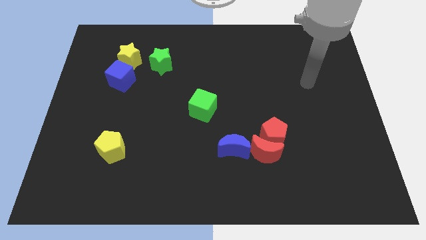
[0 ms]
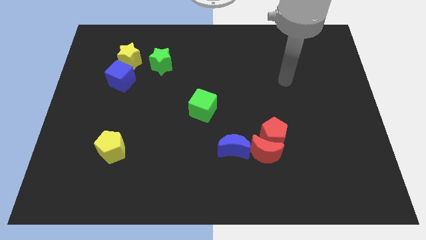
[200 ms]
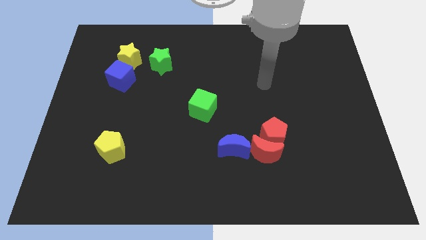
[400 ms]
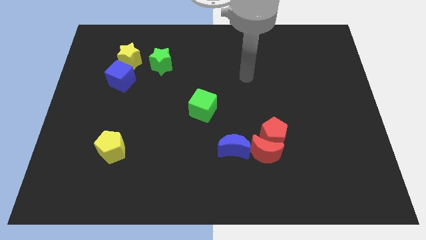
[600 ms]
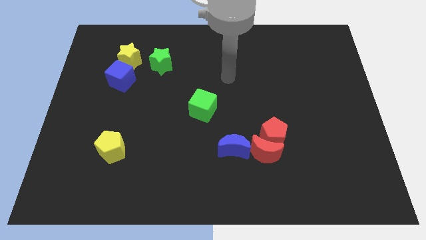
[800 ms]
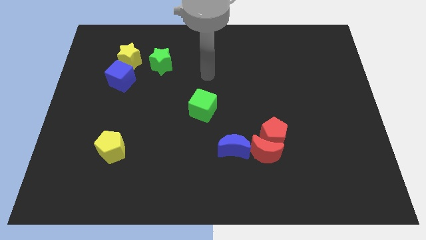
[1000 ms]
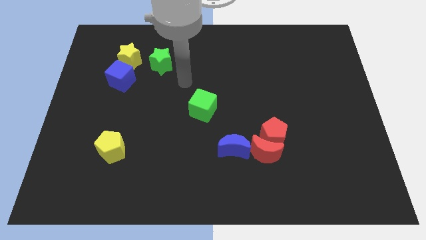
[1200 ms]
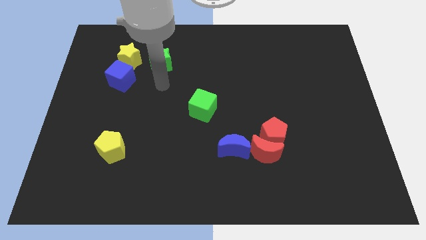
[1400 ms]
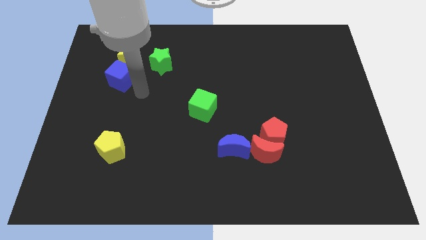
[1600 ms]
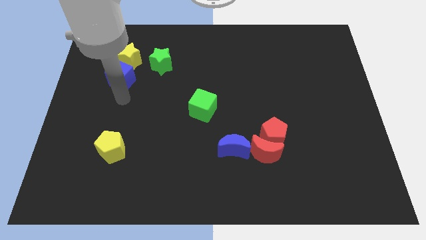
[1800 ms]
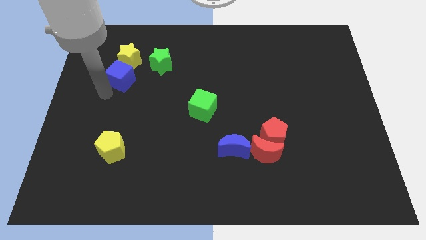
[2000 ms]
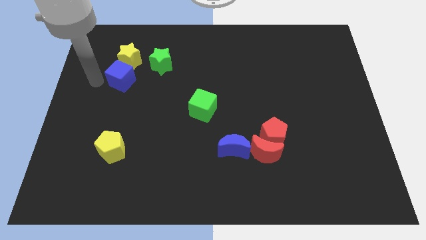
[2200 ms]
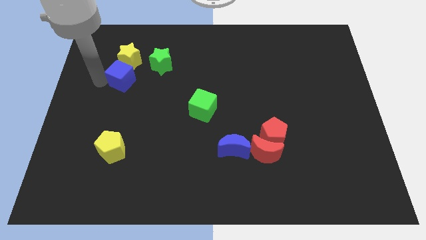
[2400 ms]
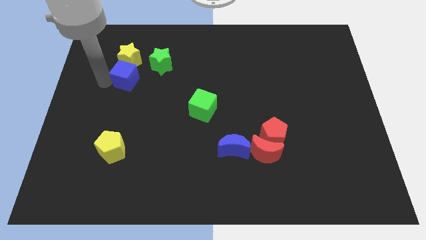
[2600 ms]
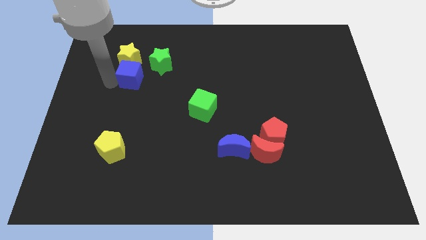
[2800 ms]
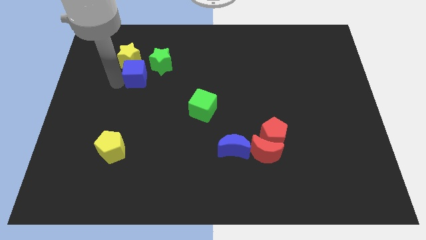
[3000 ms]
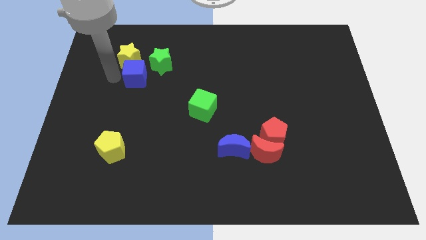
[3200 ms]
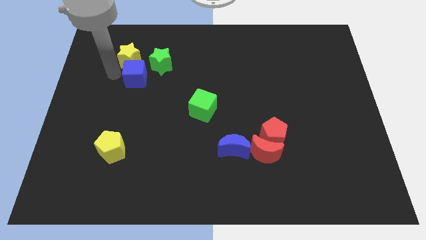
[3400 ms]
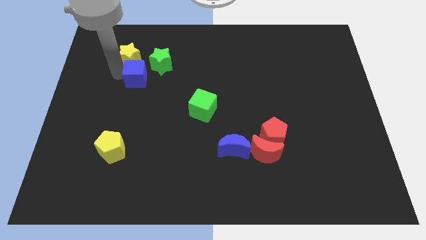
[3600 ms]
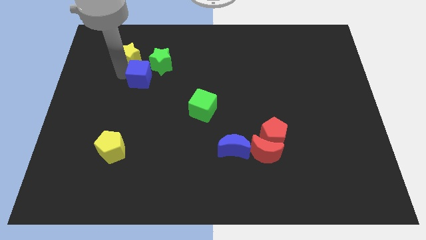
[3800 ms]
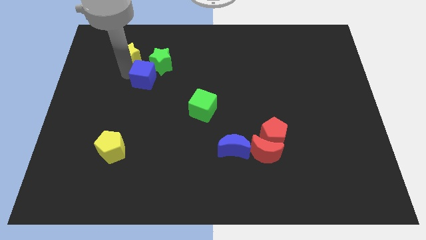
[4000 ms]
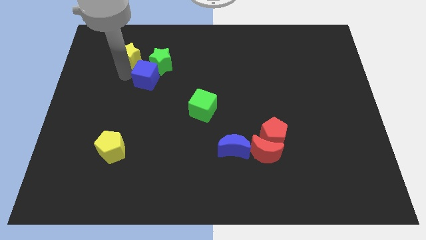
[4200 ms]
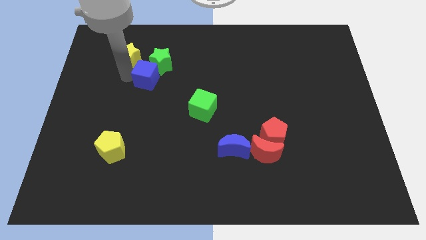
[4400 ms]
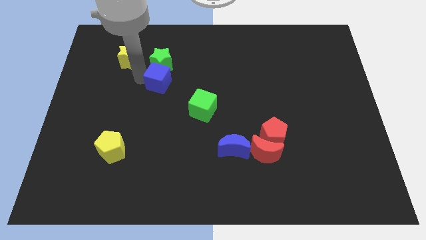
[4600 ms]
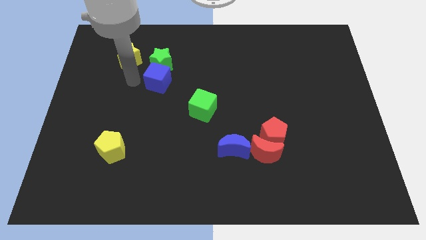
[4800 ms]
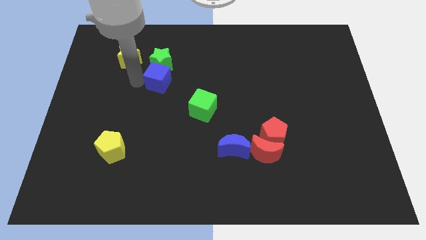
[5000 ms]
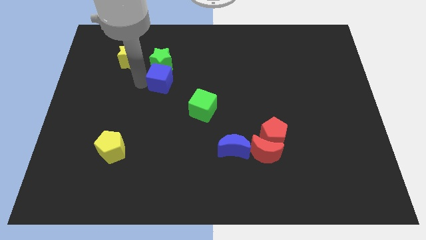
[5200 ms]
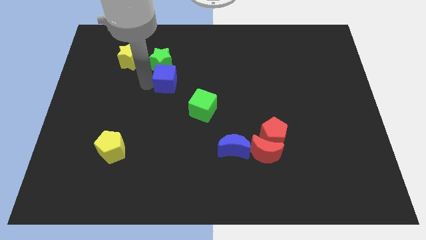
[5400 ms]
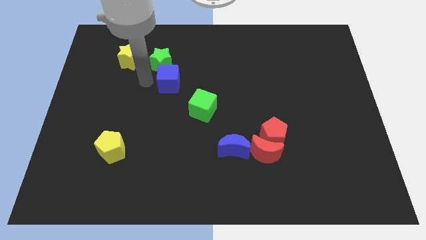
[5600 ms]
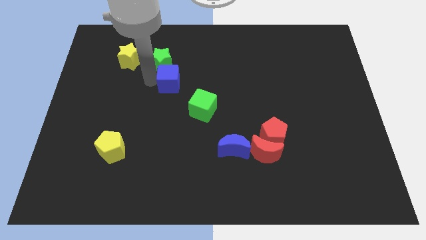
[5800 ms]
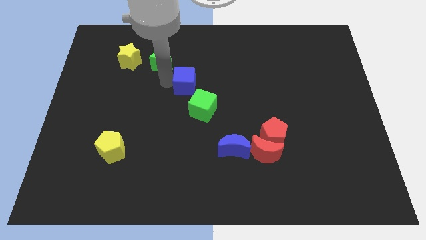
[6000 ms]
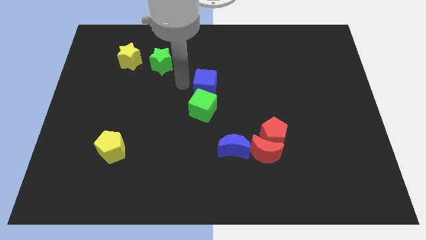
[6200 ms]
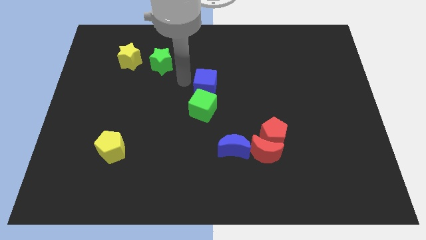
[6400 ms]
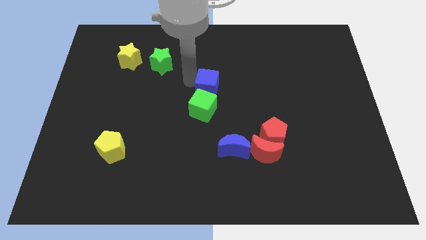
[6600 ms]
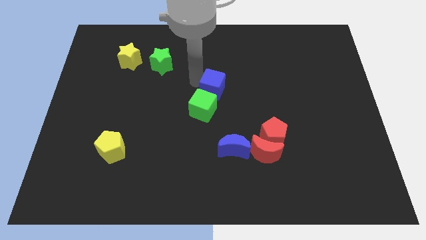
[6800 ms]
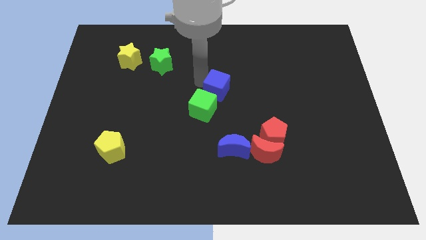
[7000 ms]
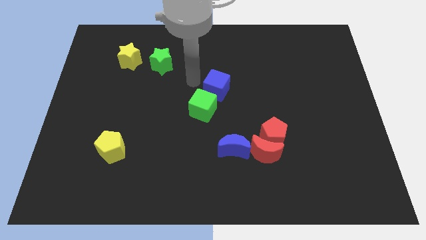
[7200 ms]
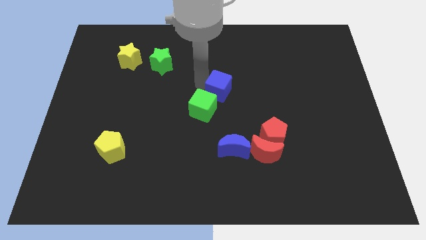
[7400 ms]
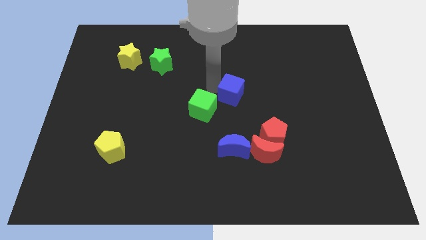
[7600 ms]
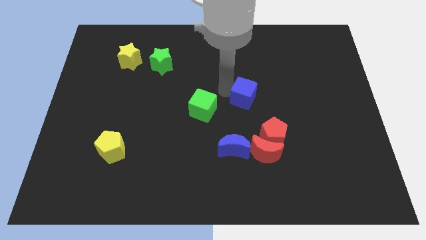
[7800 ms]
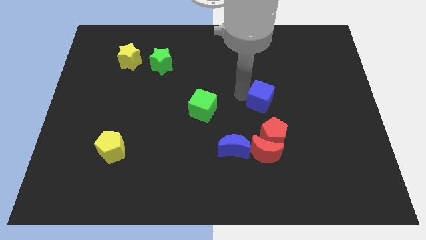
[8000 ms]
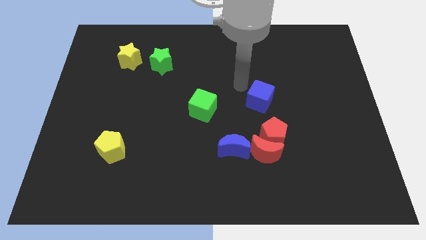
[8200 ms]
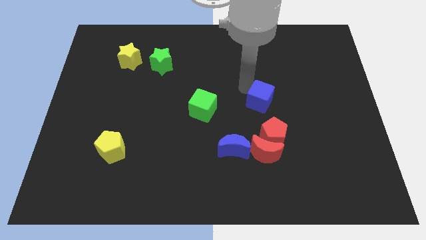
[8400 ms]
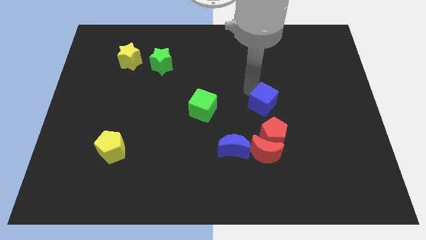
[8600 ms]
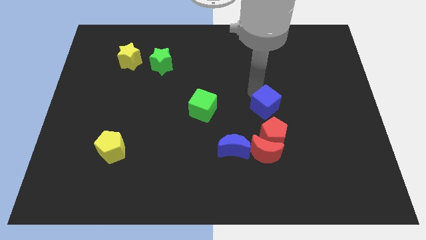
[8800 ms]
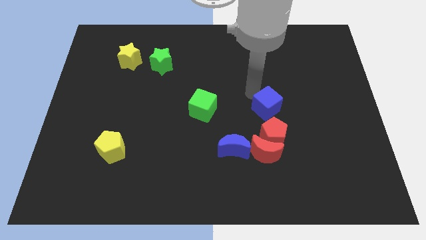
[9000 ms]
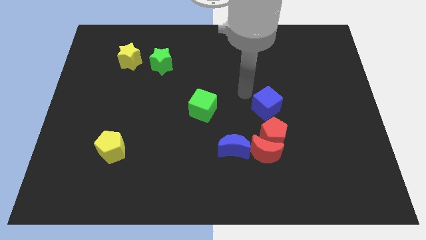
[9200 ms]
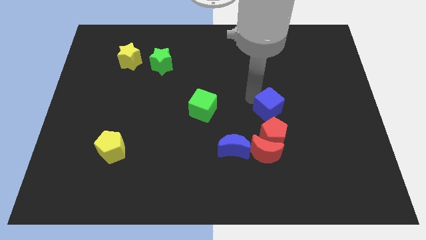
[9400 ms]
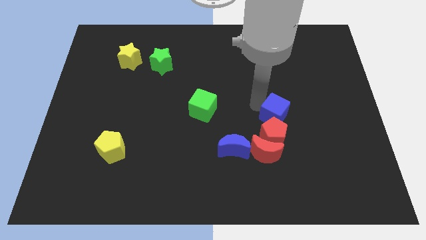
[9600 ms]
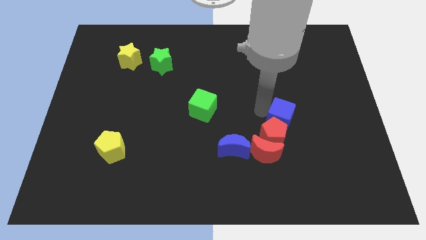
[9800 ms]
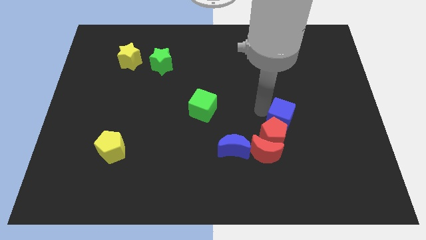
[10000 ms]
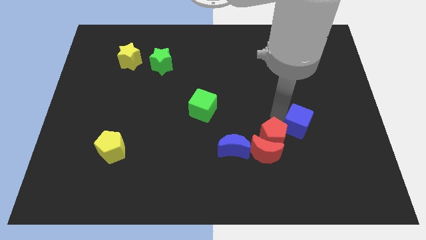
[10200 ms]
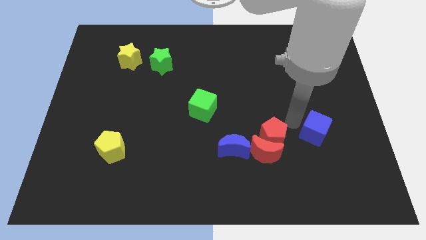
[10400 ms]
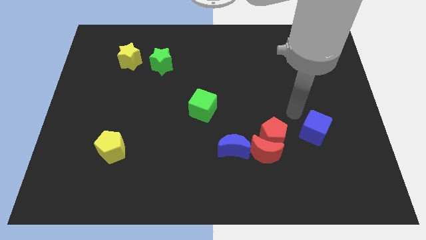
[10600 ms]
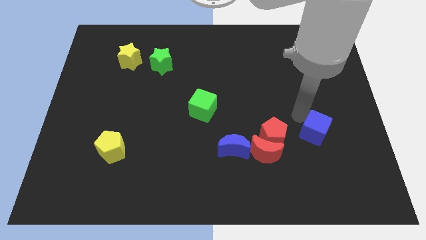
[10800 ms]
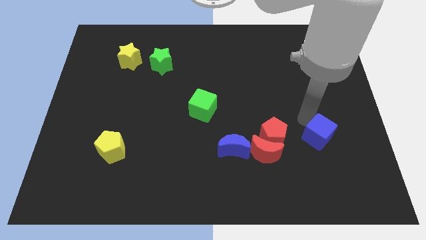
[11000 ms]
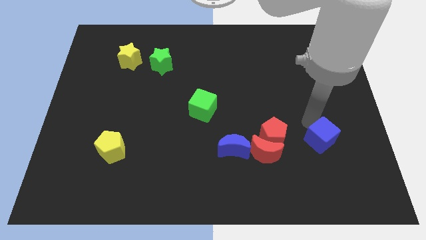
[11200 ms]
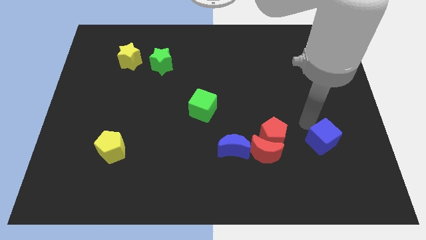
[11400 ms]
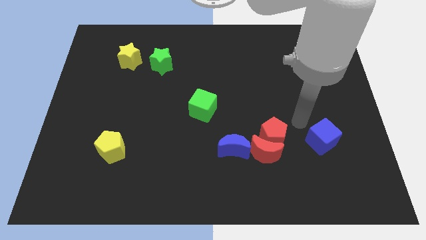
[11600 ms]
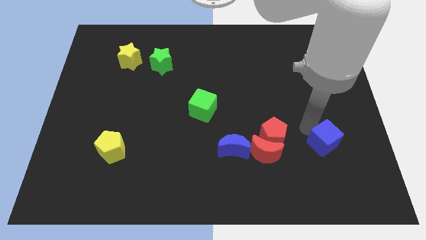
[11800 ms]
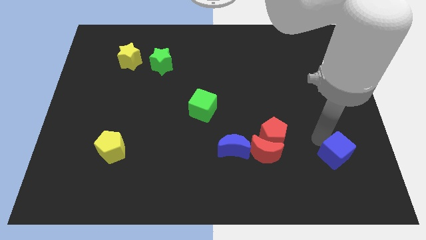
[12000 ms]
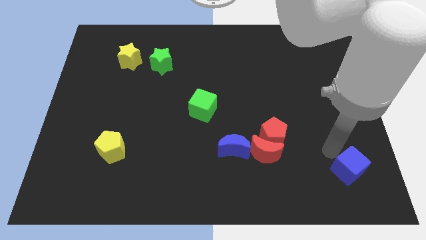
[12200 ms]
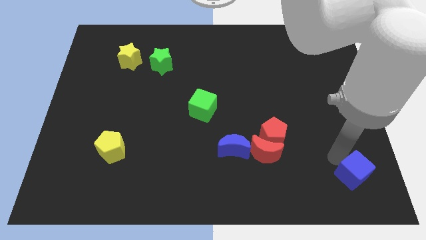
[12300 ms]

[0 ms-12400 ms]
push the blue cube to the bottom right
